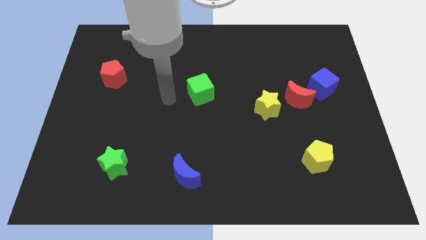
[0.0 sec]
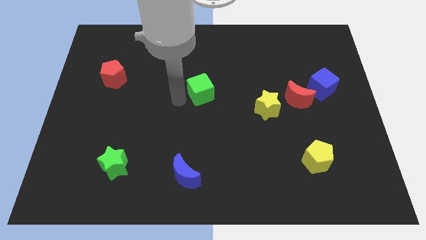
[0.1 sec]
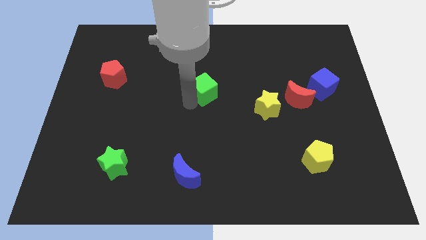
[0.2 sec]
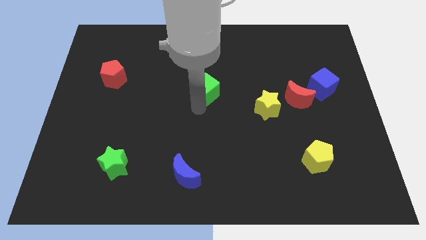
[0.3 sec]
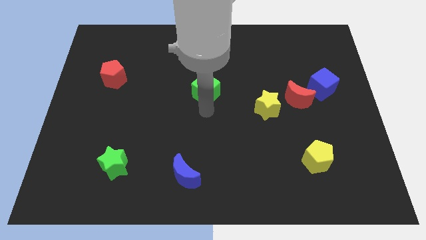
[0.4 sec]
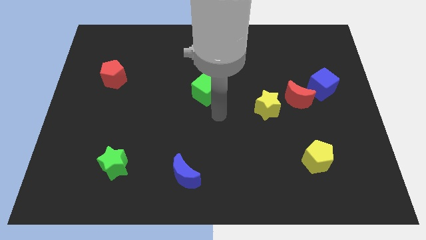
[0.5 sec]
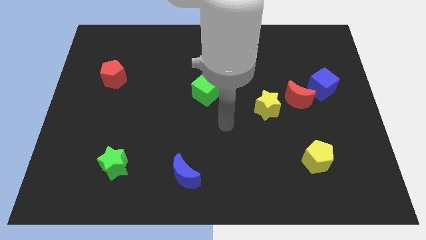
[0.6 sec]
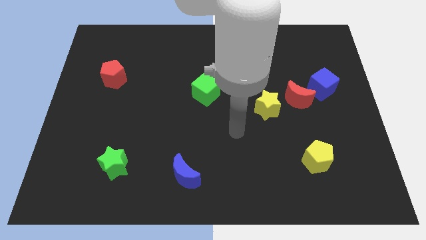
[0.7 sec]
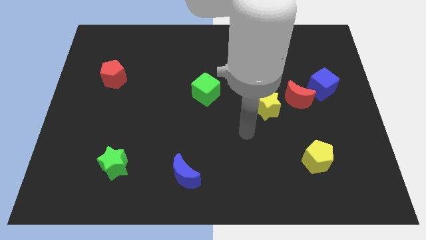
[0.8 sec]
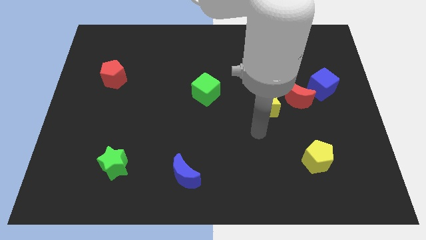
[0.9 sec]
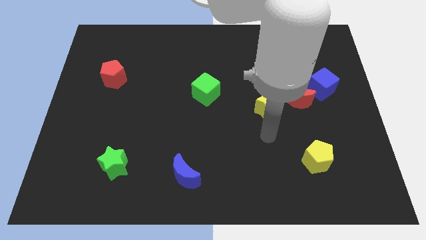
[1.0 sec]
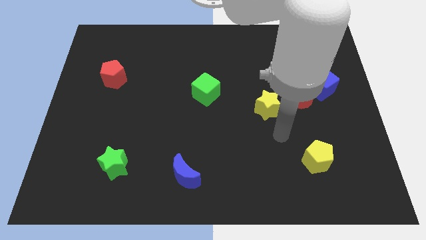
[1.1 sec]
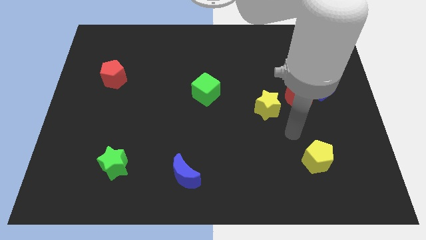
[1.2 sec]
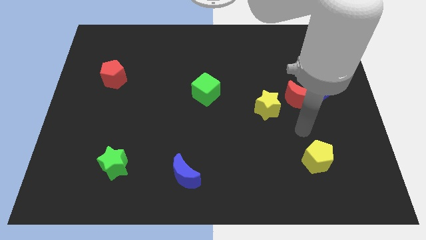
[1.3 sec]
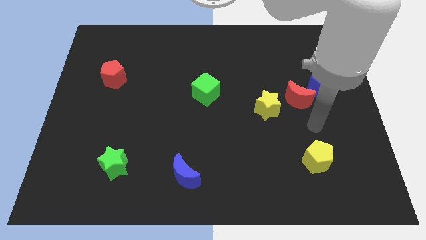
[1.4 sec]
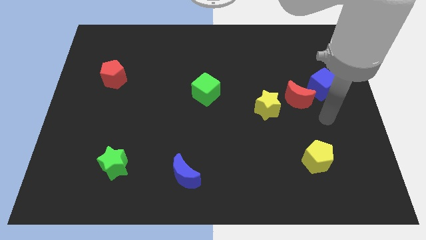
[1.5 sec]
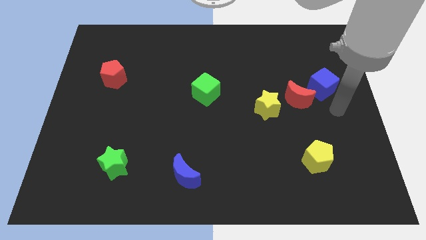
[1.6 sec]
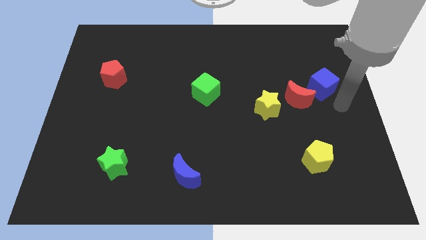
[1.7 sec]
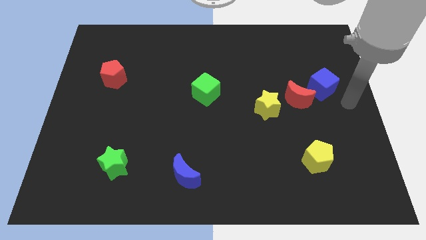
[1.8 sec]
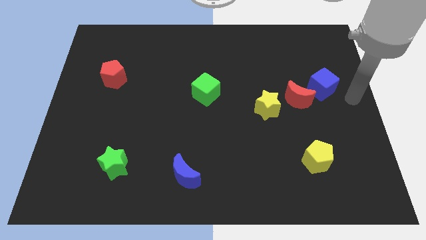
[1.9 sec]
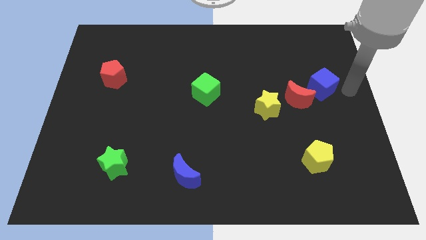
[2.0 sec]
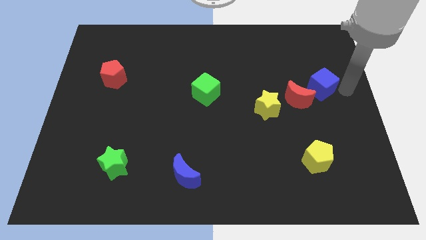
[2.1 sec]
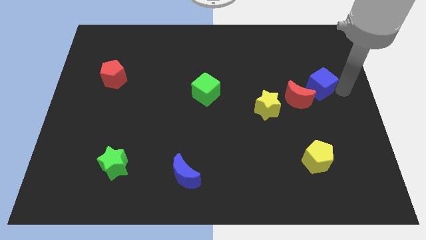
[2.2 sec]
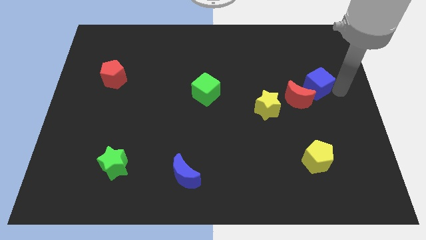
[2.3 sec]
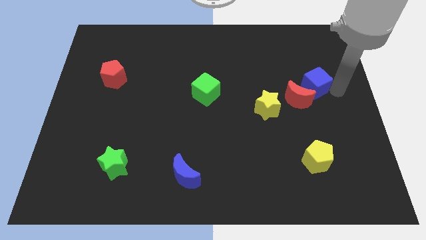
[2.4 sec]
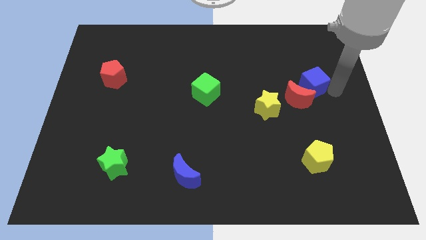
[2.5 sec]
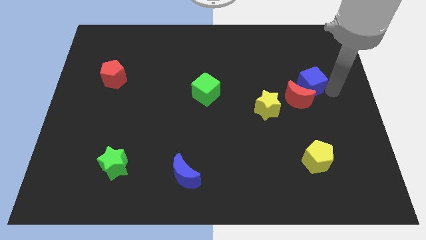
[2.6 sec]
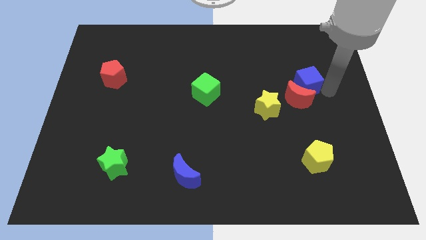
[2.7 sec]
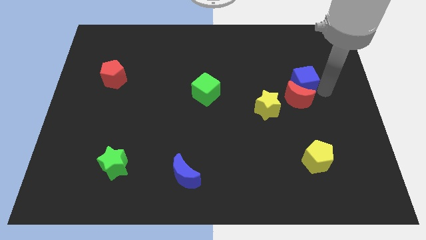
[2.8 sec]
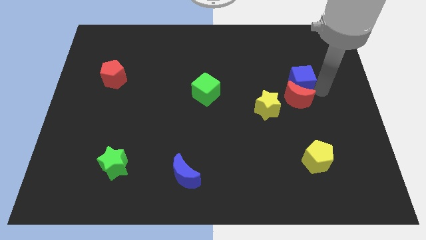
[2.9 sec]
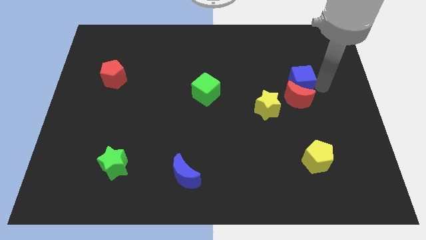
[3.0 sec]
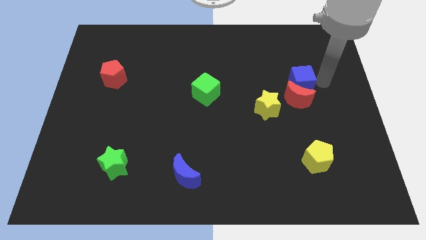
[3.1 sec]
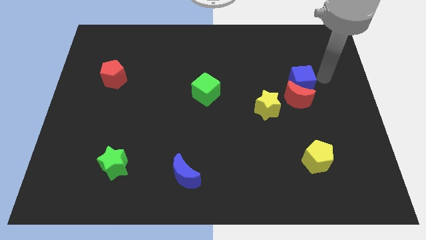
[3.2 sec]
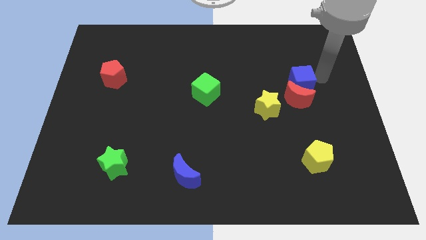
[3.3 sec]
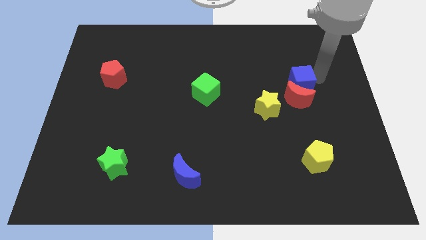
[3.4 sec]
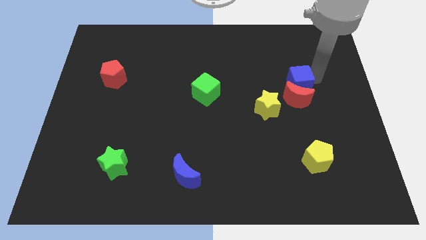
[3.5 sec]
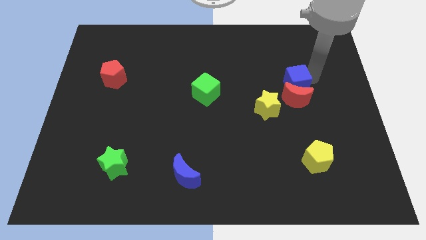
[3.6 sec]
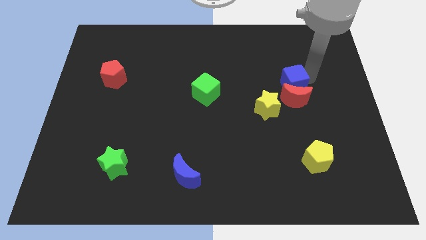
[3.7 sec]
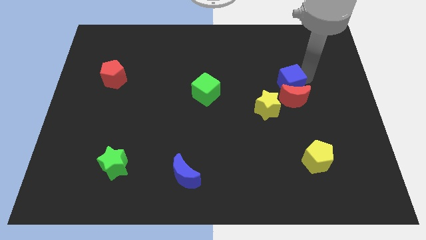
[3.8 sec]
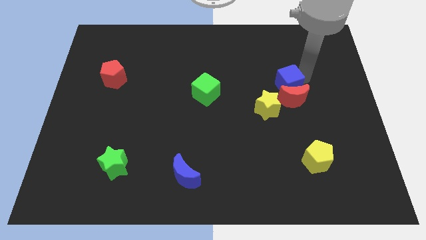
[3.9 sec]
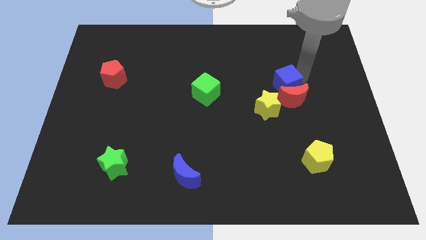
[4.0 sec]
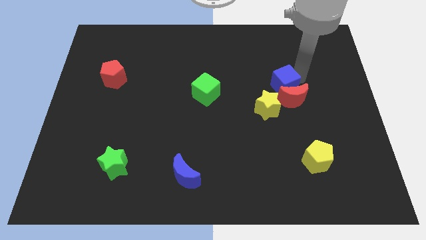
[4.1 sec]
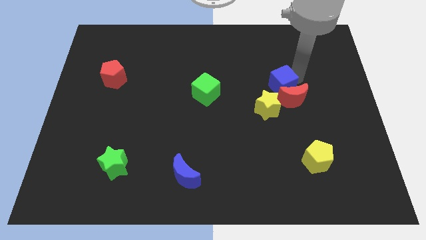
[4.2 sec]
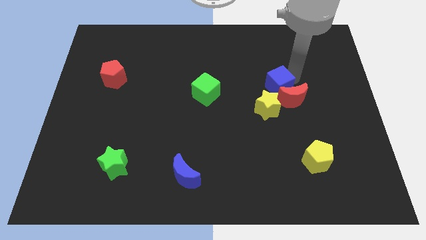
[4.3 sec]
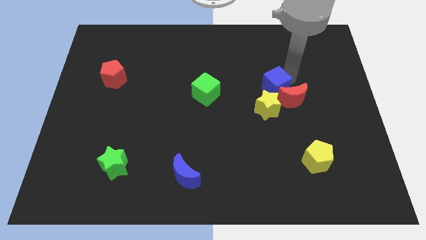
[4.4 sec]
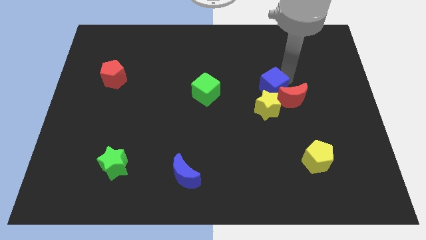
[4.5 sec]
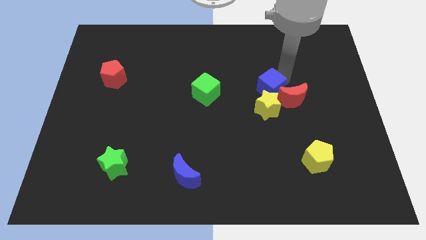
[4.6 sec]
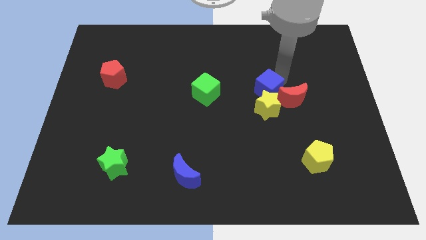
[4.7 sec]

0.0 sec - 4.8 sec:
push the blue cube close to the yellow star

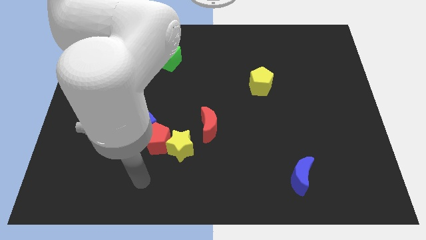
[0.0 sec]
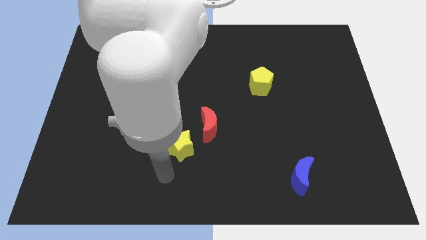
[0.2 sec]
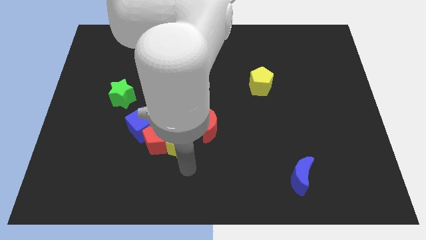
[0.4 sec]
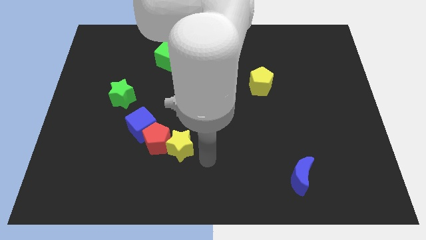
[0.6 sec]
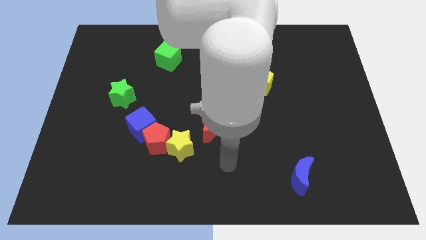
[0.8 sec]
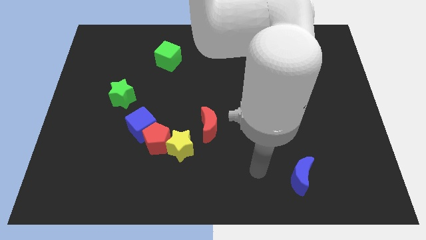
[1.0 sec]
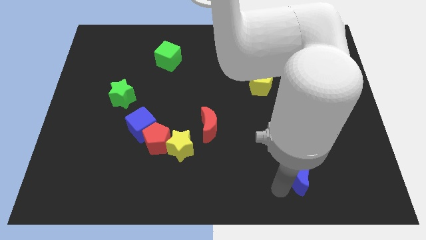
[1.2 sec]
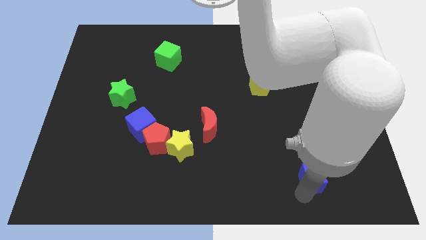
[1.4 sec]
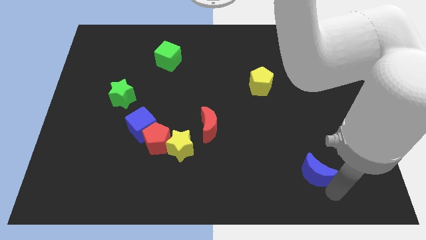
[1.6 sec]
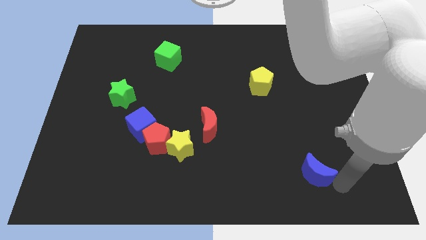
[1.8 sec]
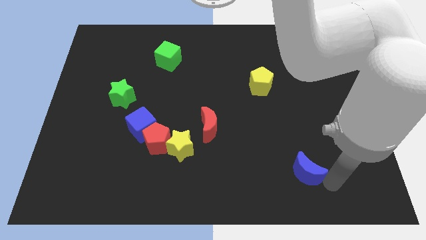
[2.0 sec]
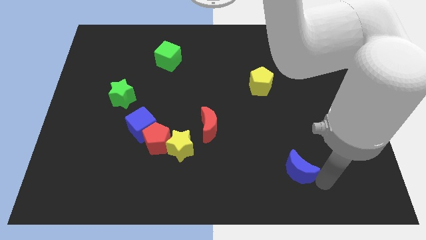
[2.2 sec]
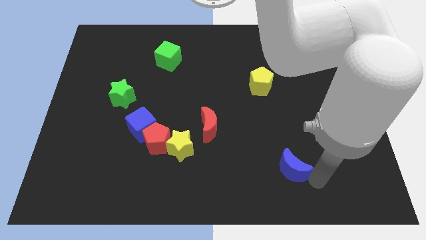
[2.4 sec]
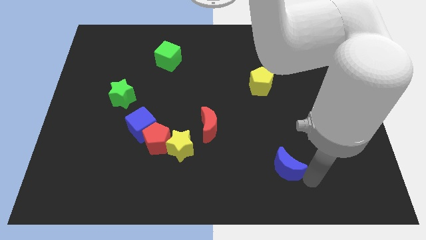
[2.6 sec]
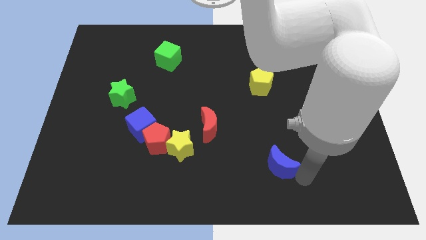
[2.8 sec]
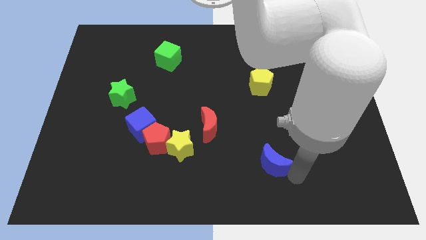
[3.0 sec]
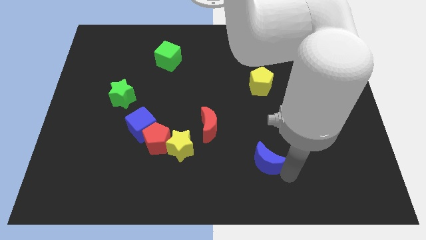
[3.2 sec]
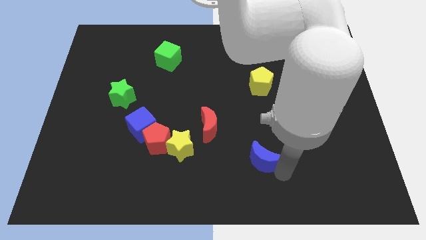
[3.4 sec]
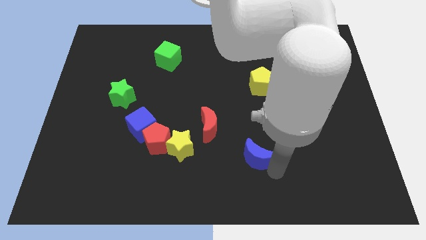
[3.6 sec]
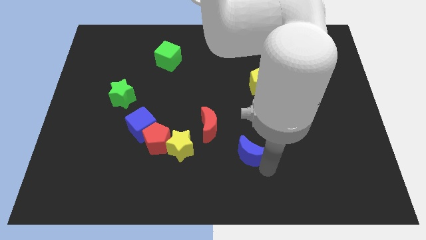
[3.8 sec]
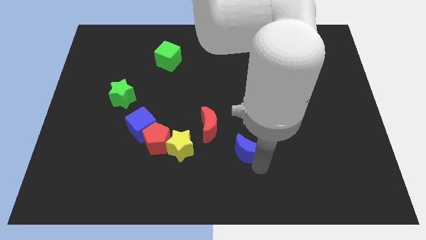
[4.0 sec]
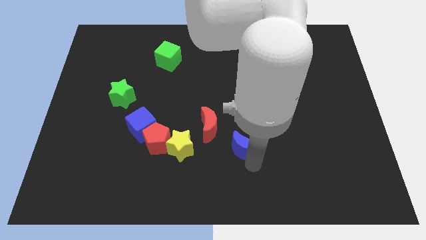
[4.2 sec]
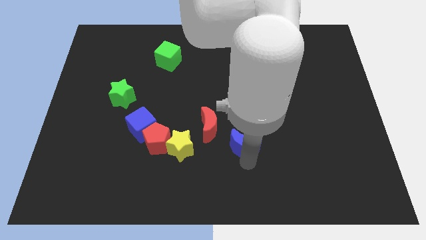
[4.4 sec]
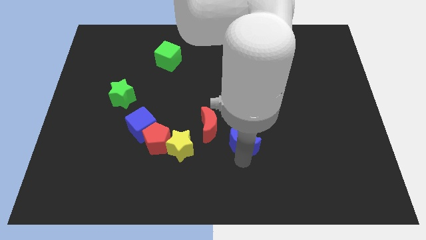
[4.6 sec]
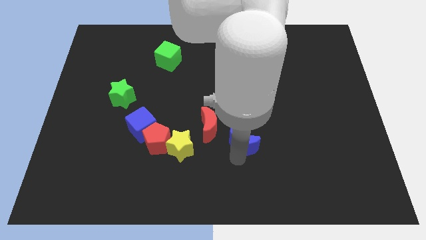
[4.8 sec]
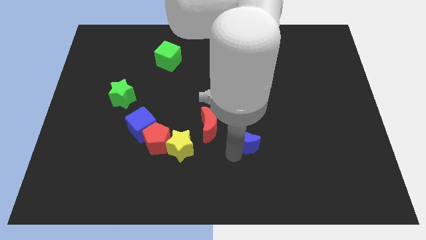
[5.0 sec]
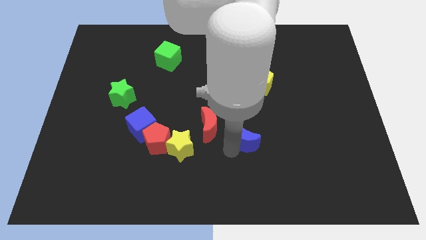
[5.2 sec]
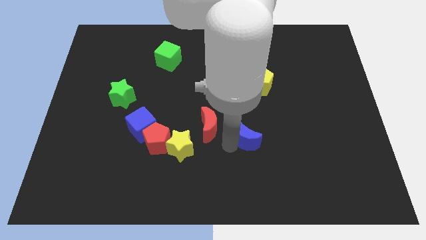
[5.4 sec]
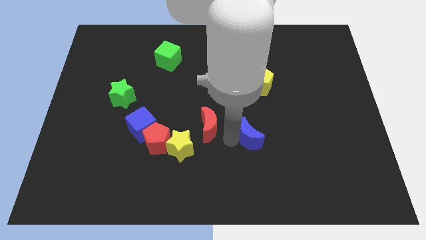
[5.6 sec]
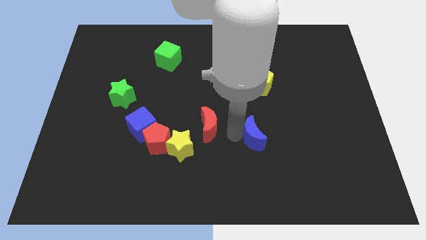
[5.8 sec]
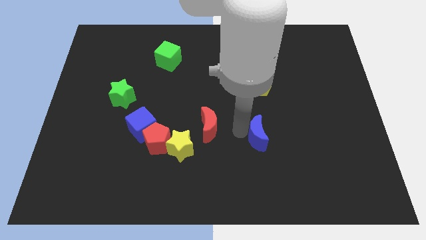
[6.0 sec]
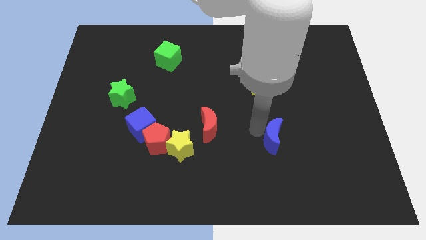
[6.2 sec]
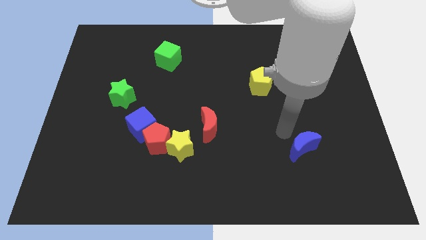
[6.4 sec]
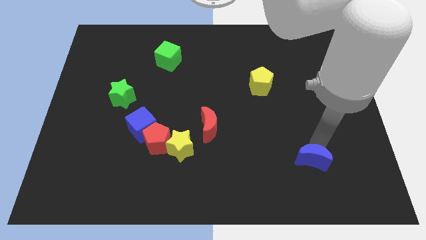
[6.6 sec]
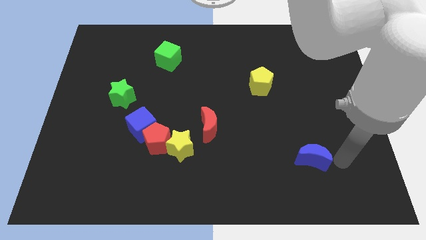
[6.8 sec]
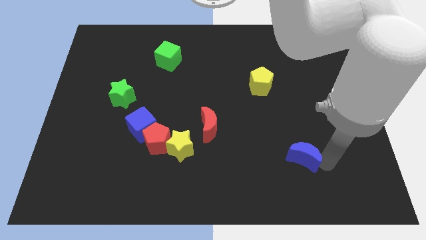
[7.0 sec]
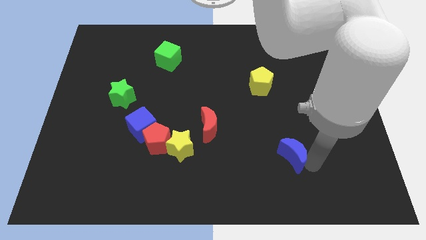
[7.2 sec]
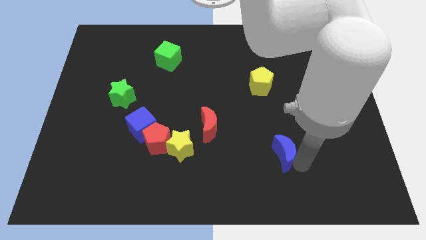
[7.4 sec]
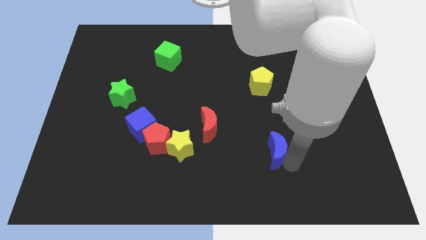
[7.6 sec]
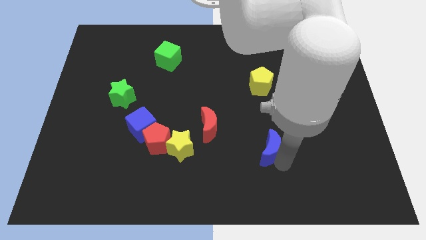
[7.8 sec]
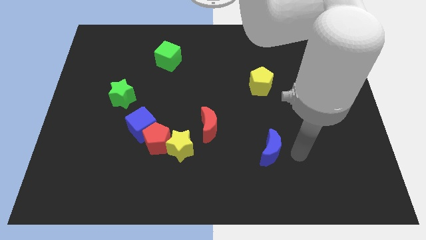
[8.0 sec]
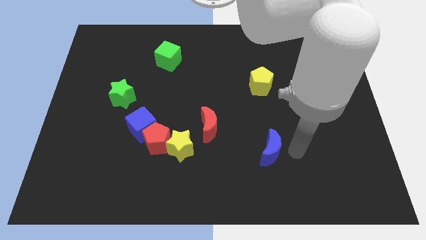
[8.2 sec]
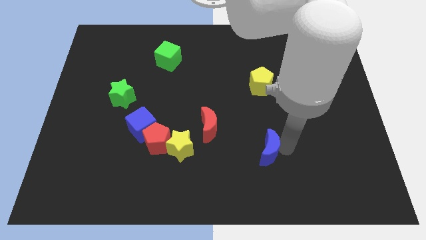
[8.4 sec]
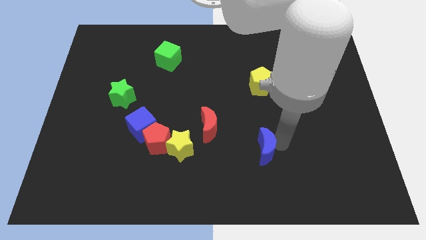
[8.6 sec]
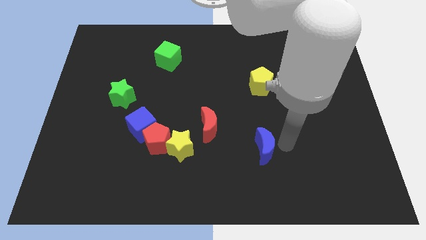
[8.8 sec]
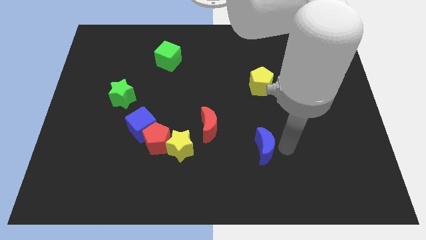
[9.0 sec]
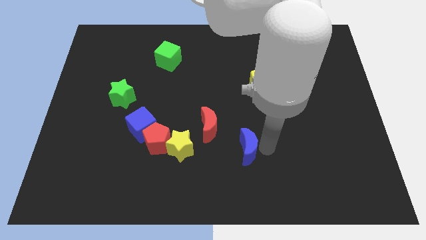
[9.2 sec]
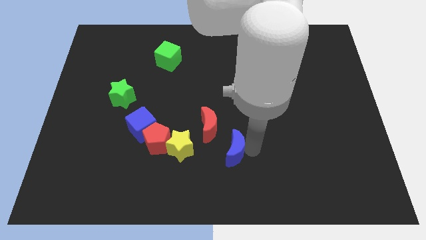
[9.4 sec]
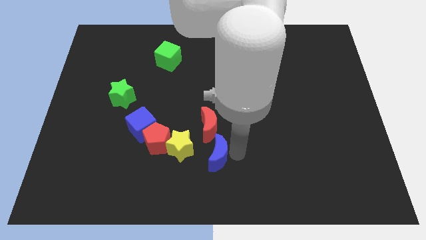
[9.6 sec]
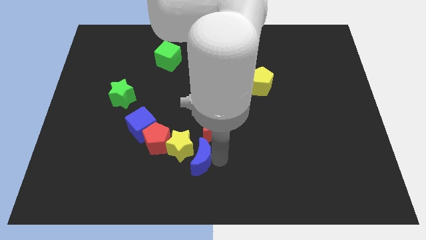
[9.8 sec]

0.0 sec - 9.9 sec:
move the blue moon close to the yellow star
